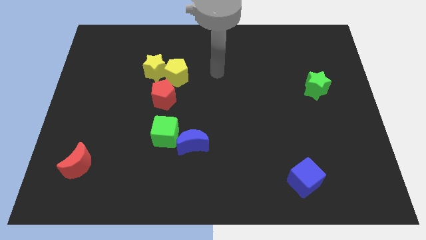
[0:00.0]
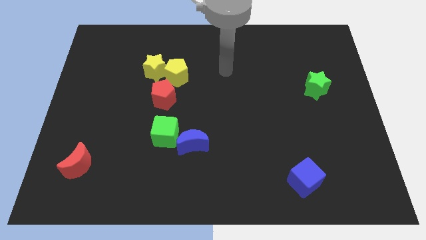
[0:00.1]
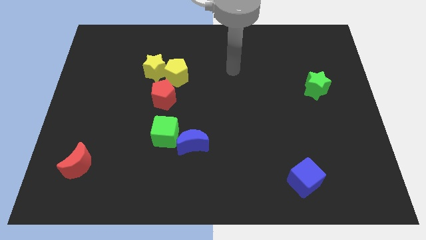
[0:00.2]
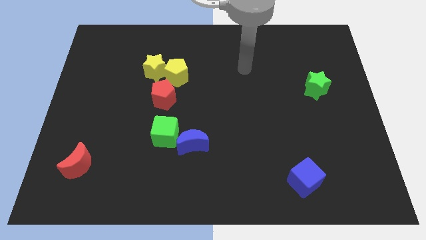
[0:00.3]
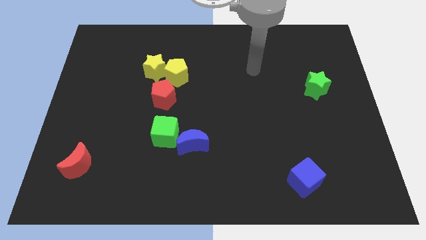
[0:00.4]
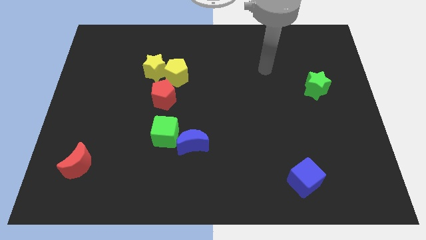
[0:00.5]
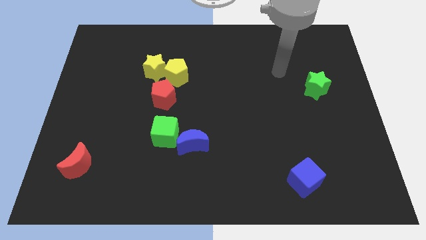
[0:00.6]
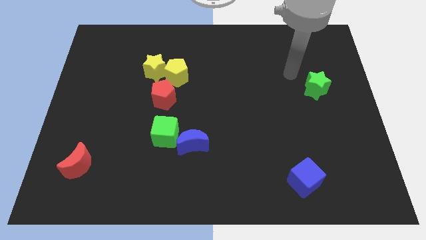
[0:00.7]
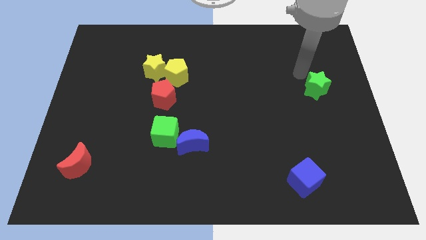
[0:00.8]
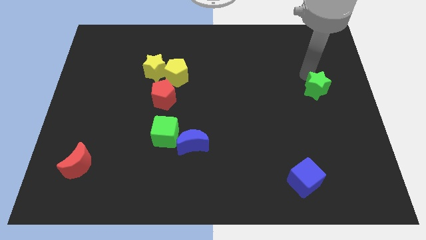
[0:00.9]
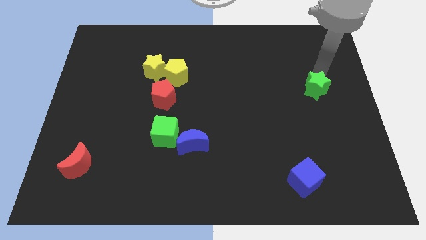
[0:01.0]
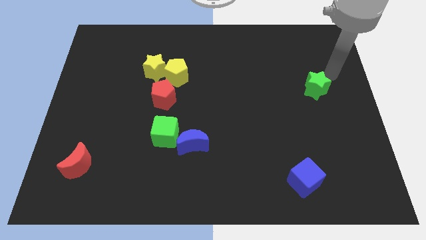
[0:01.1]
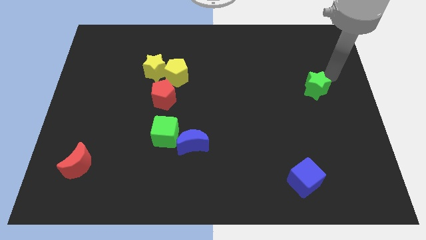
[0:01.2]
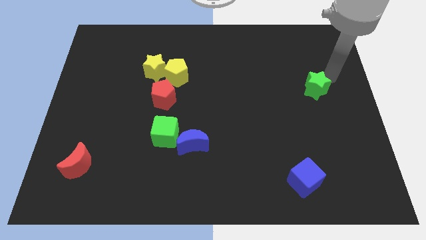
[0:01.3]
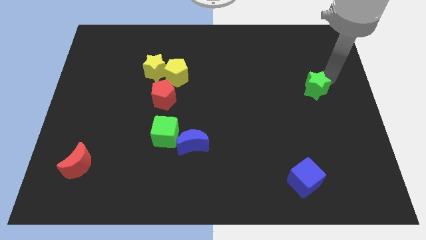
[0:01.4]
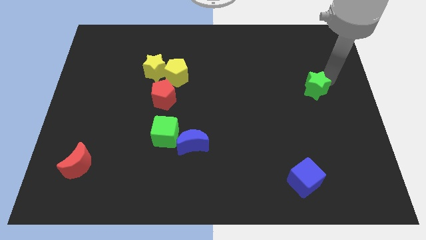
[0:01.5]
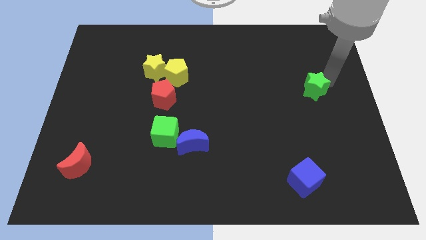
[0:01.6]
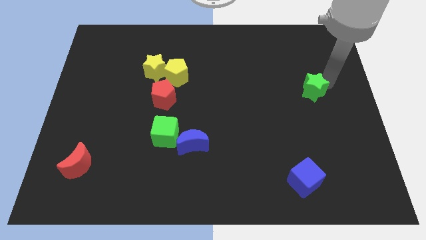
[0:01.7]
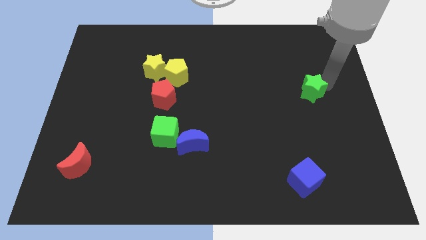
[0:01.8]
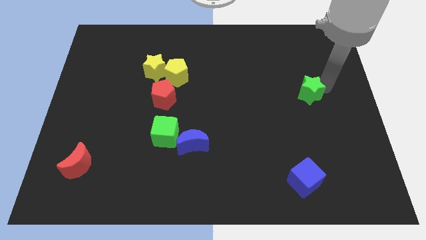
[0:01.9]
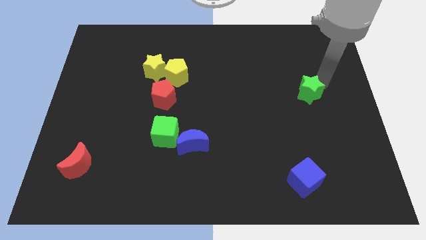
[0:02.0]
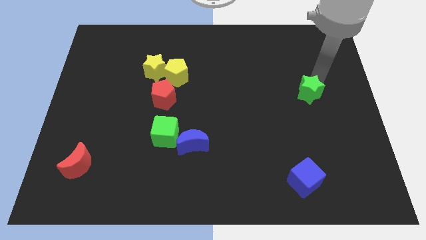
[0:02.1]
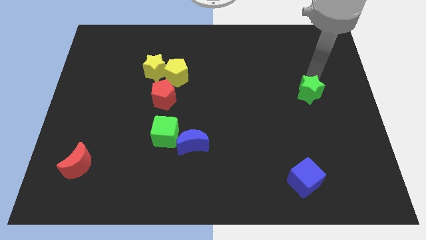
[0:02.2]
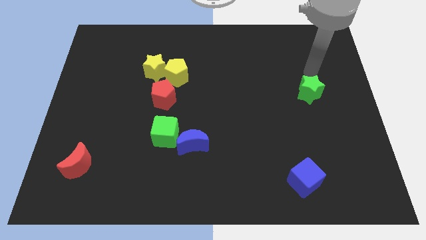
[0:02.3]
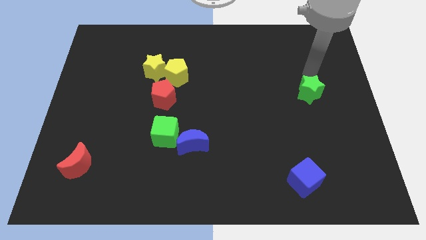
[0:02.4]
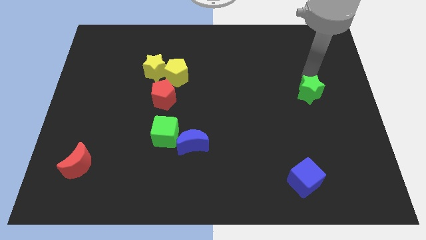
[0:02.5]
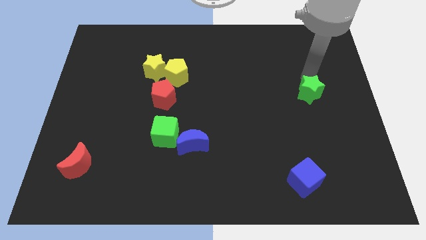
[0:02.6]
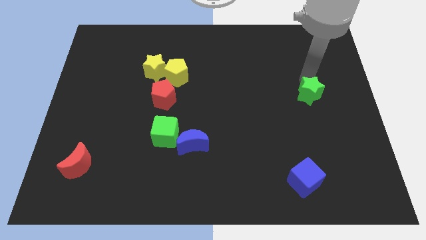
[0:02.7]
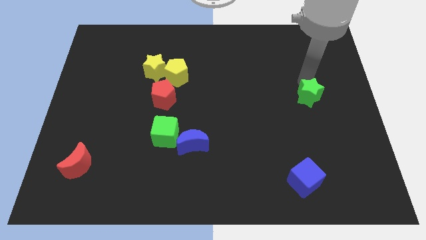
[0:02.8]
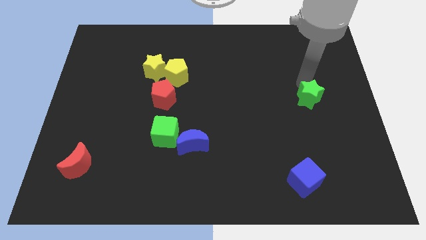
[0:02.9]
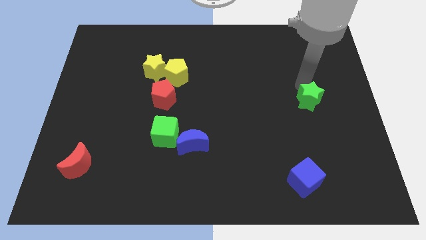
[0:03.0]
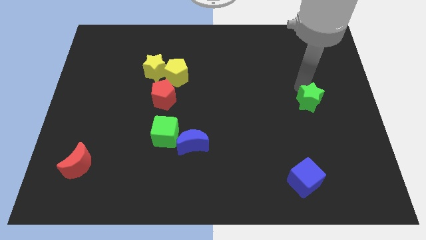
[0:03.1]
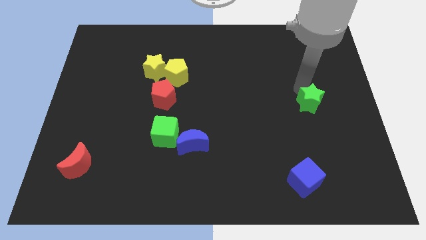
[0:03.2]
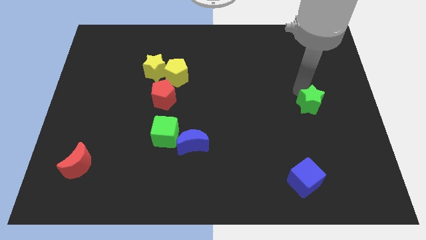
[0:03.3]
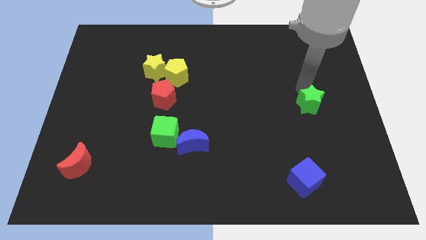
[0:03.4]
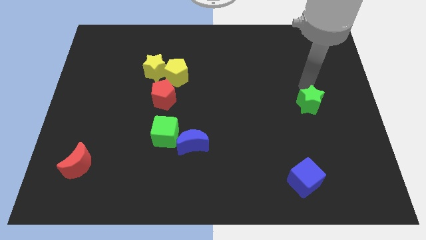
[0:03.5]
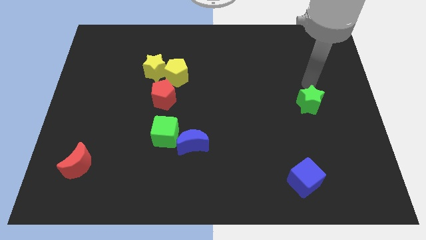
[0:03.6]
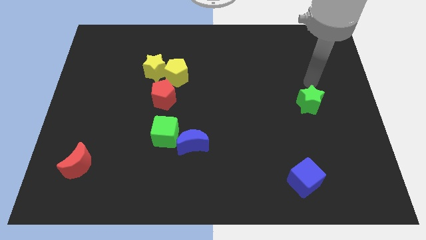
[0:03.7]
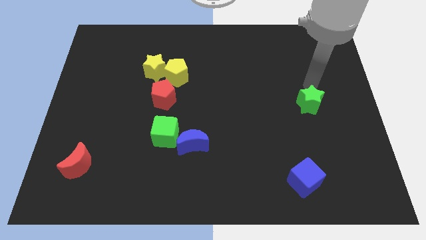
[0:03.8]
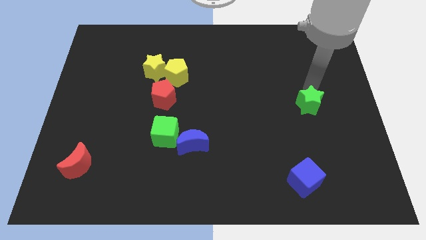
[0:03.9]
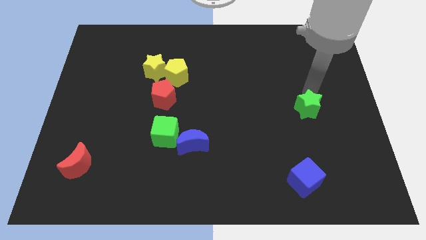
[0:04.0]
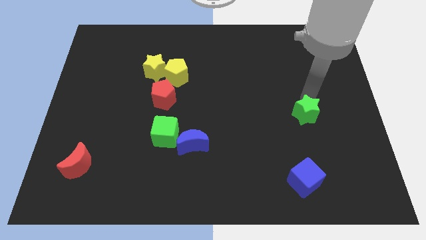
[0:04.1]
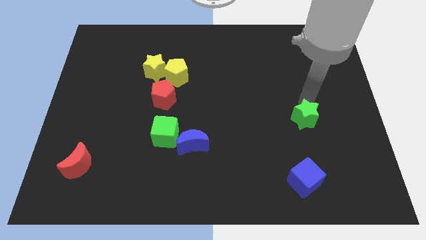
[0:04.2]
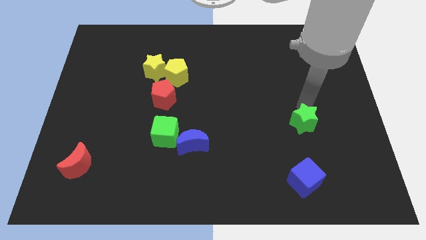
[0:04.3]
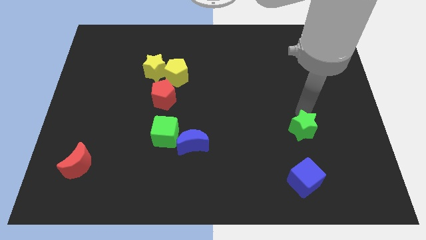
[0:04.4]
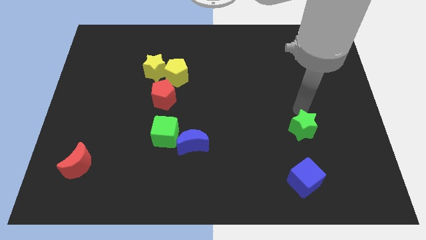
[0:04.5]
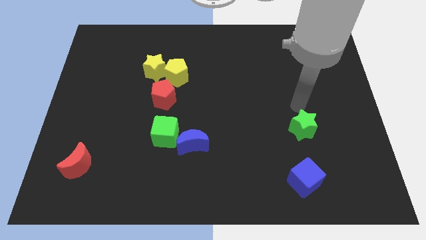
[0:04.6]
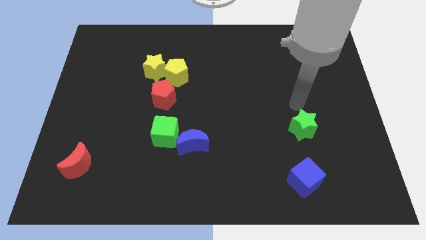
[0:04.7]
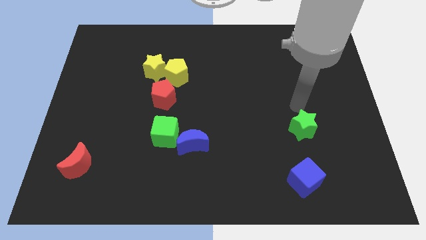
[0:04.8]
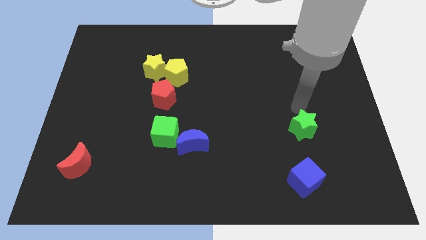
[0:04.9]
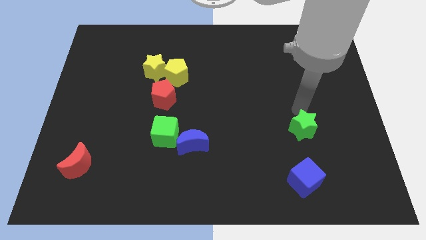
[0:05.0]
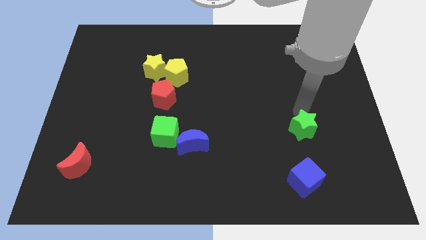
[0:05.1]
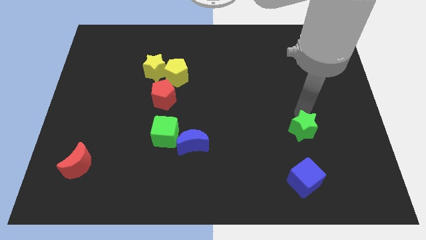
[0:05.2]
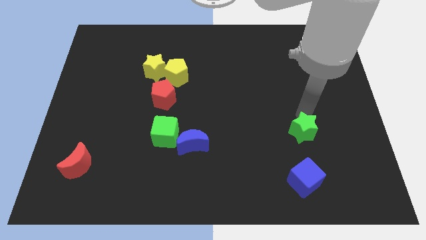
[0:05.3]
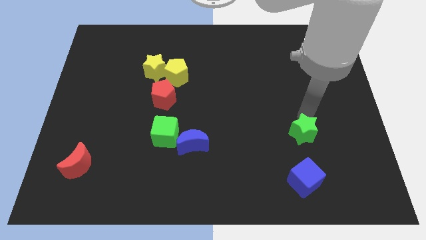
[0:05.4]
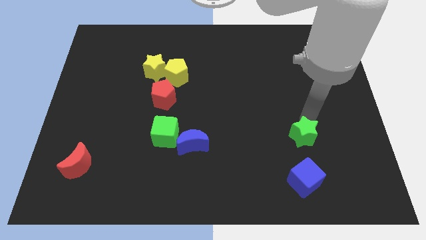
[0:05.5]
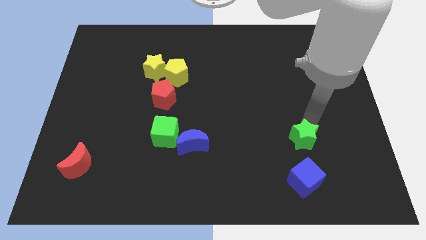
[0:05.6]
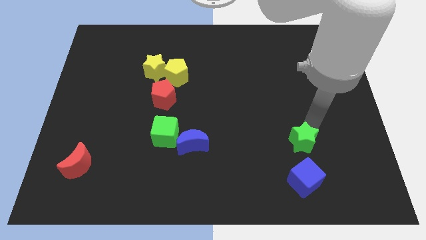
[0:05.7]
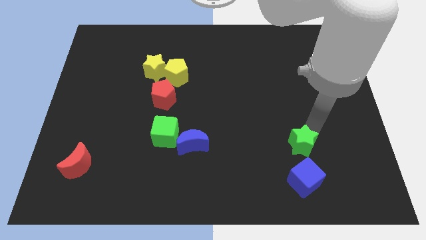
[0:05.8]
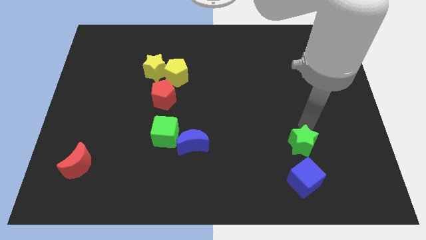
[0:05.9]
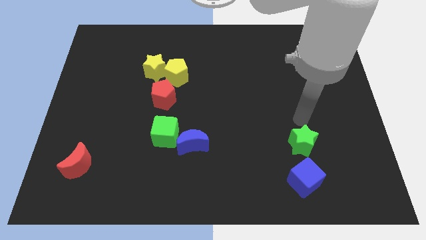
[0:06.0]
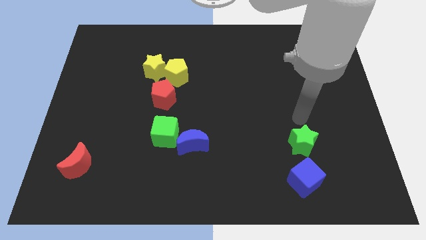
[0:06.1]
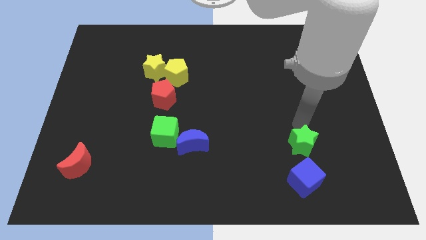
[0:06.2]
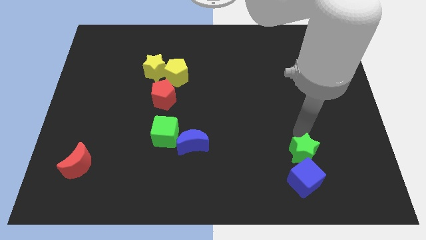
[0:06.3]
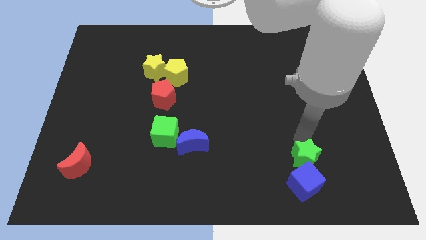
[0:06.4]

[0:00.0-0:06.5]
slide the green star next to the blue cube
